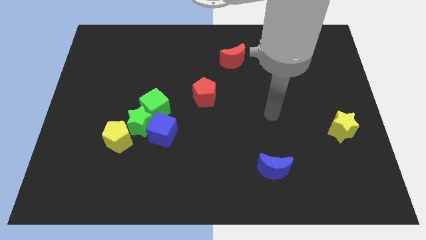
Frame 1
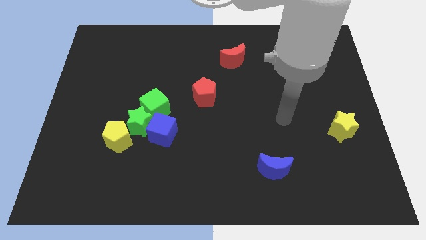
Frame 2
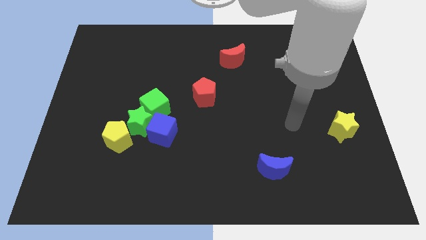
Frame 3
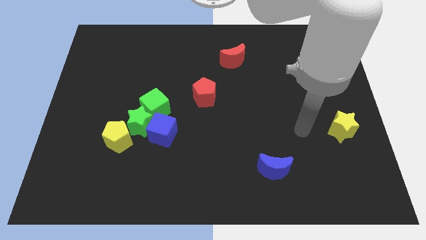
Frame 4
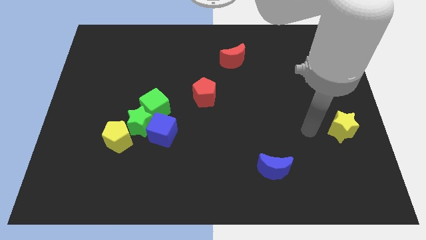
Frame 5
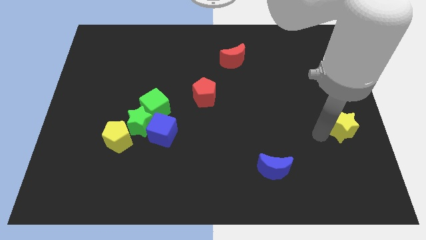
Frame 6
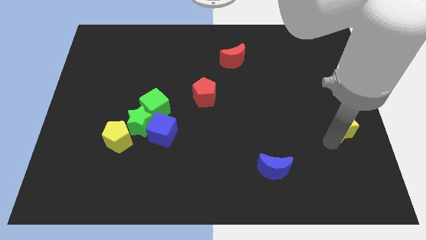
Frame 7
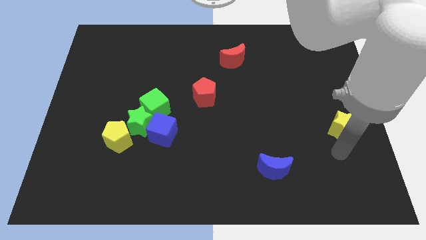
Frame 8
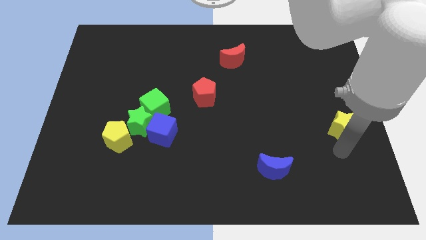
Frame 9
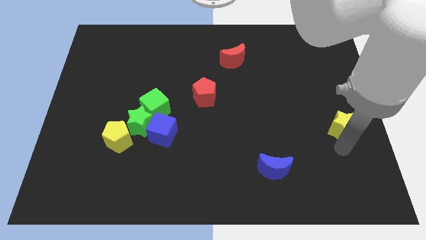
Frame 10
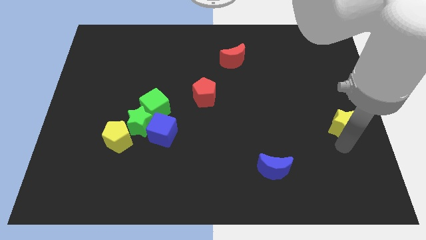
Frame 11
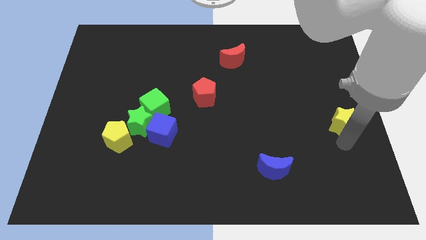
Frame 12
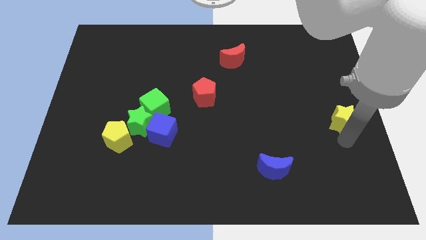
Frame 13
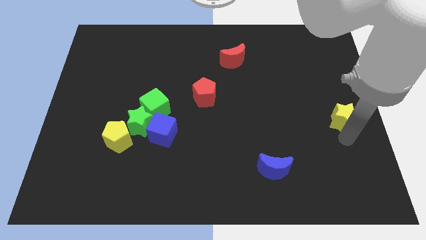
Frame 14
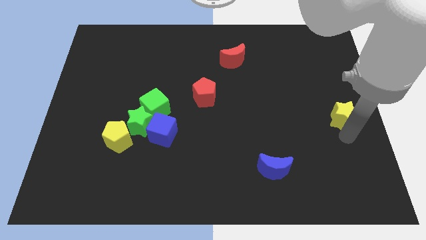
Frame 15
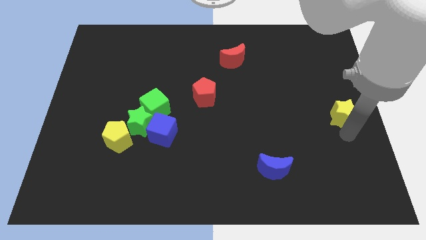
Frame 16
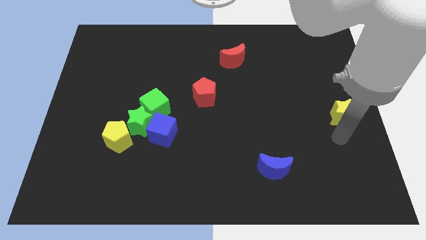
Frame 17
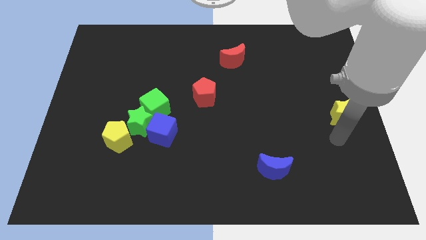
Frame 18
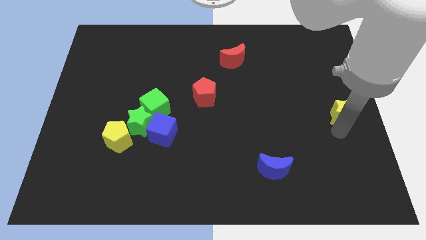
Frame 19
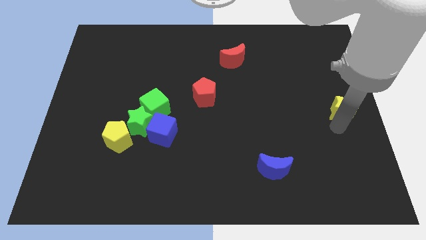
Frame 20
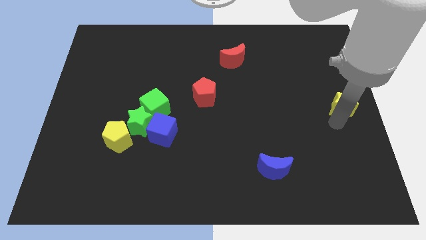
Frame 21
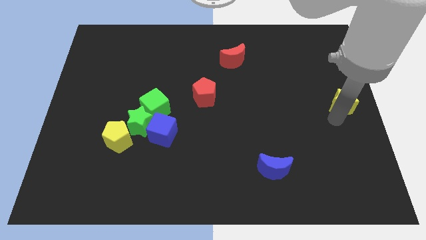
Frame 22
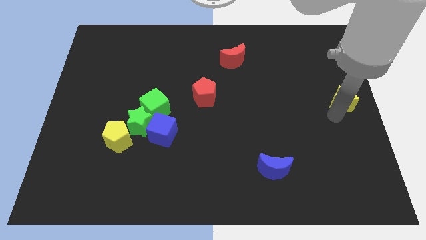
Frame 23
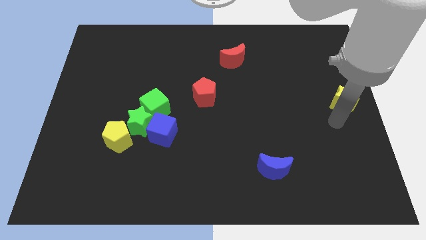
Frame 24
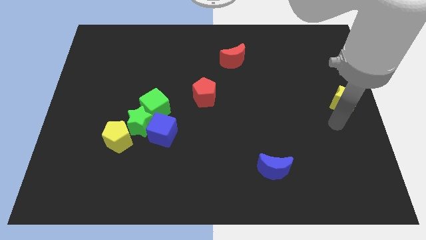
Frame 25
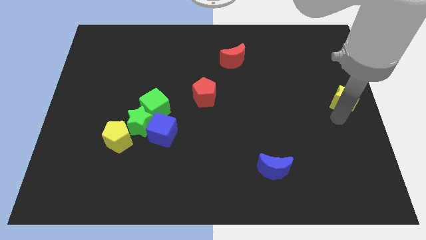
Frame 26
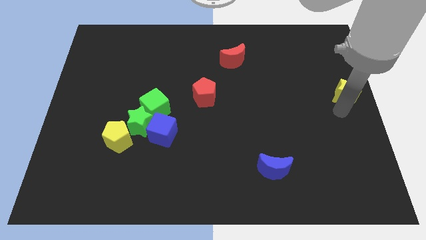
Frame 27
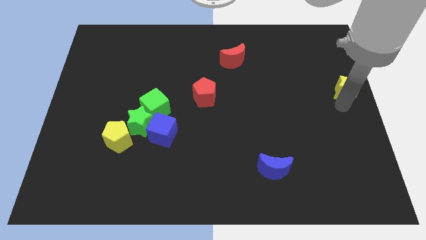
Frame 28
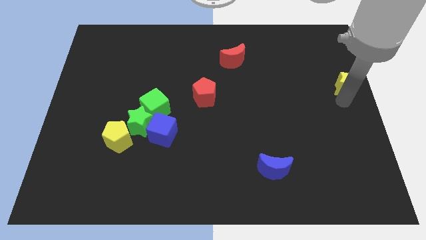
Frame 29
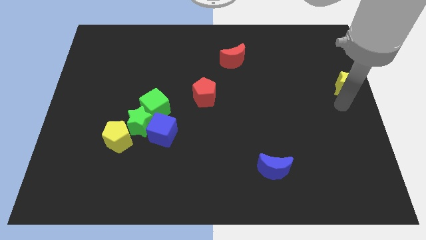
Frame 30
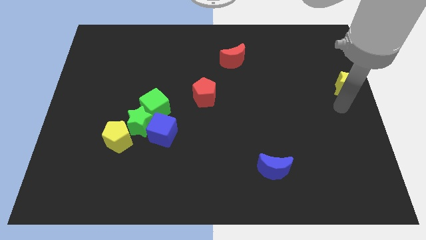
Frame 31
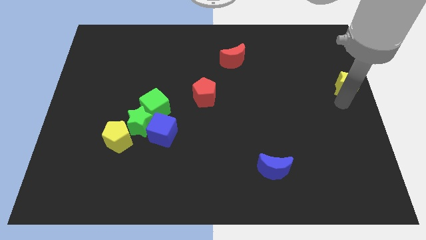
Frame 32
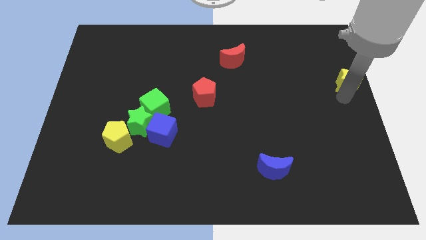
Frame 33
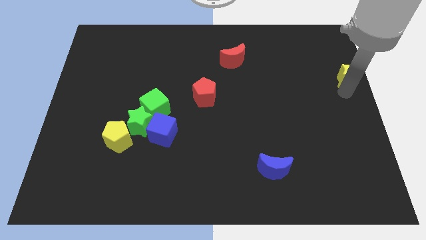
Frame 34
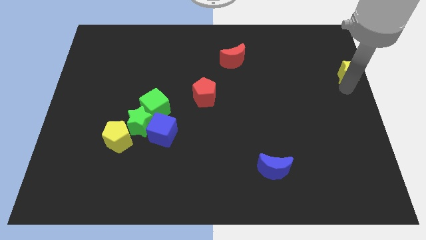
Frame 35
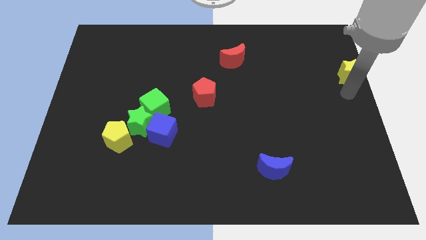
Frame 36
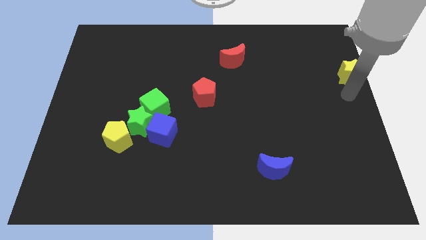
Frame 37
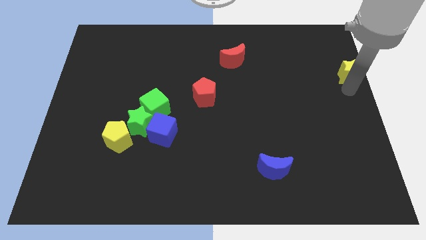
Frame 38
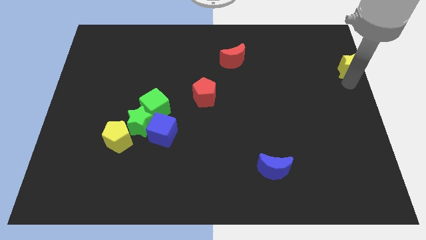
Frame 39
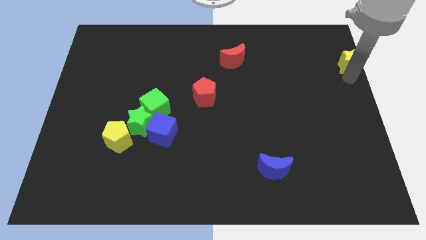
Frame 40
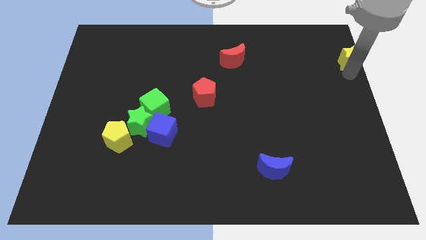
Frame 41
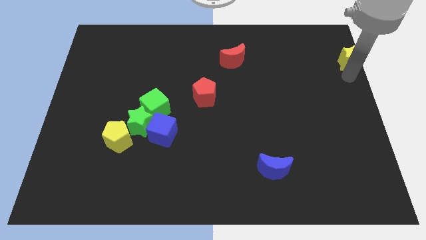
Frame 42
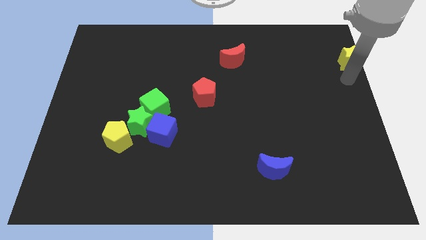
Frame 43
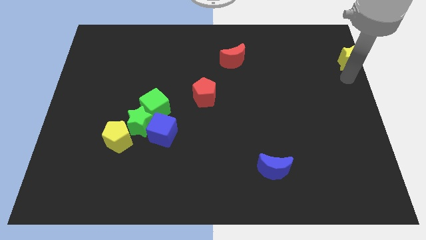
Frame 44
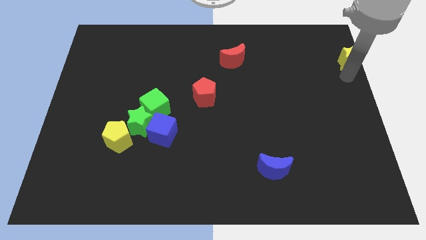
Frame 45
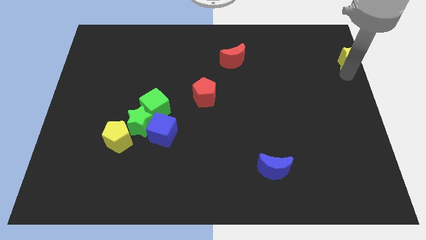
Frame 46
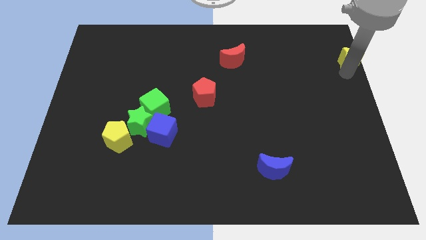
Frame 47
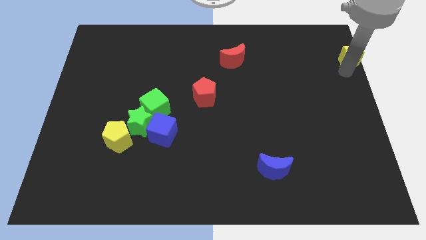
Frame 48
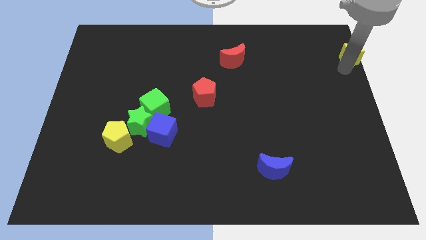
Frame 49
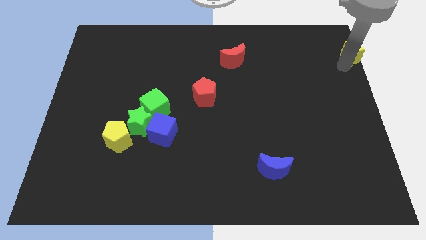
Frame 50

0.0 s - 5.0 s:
push the yellow star to the top right corner

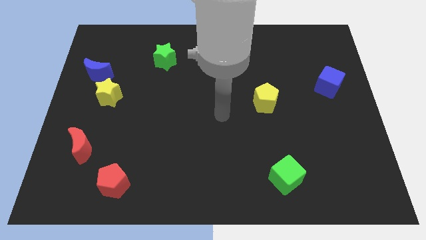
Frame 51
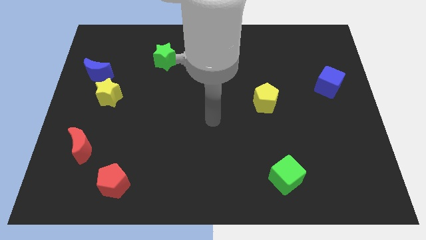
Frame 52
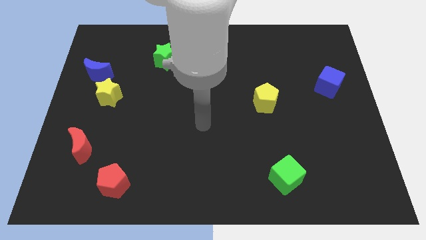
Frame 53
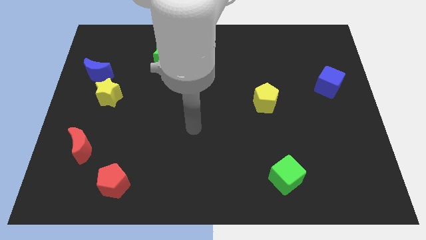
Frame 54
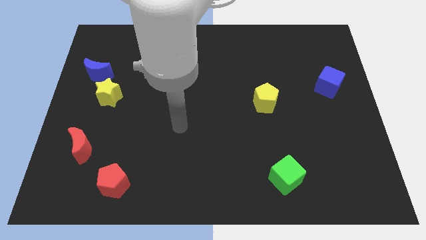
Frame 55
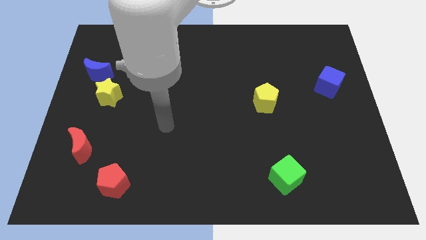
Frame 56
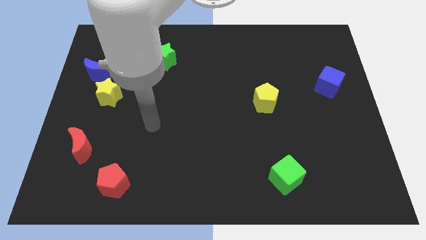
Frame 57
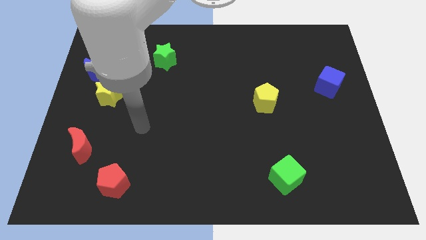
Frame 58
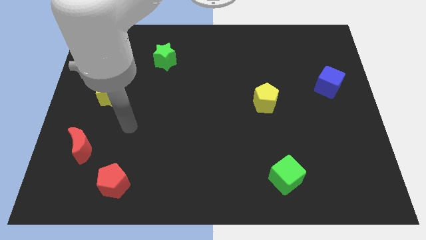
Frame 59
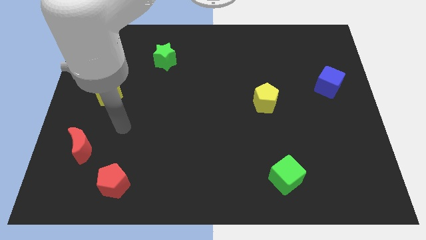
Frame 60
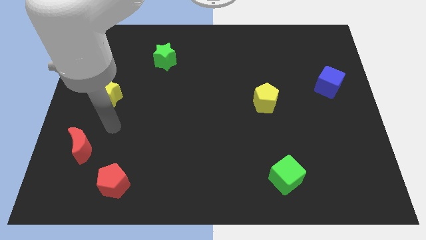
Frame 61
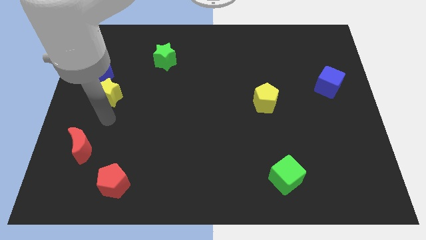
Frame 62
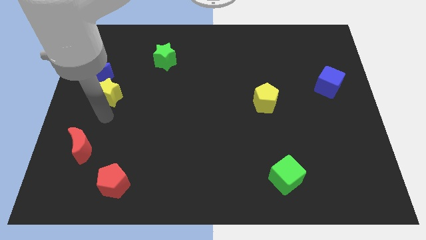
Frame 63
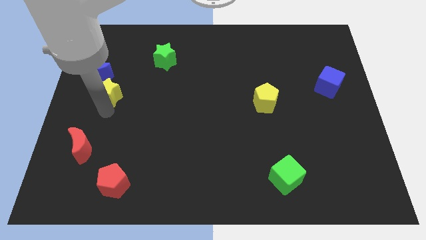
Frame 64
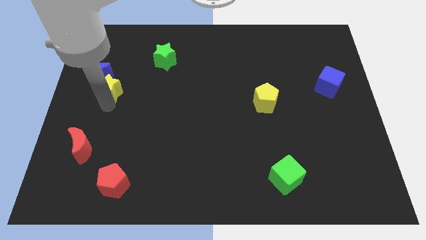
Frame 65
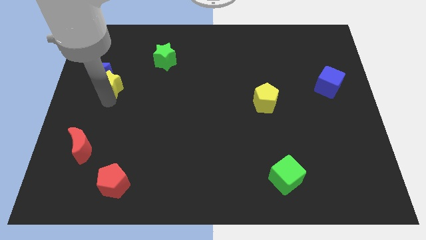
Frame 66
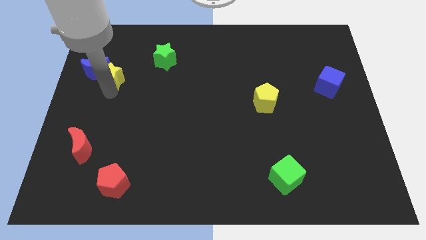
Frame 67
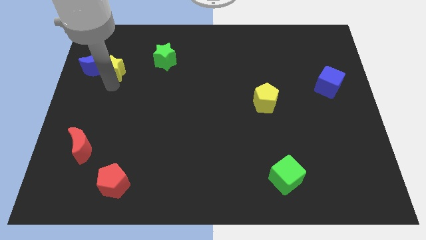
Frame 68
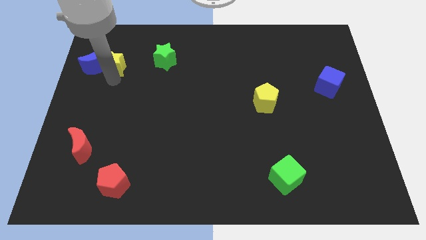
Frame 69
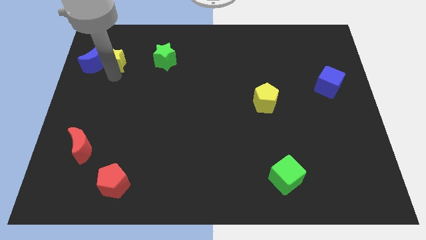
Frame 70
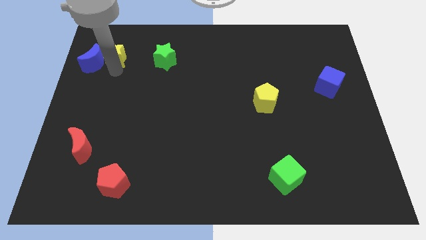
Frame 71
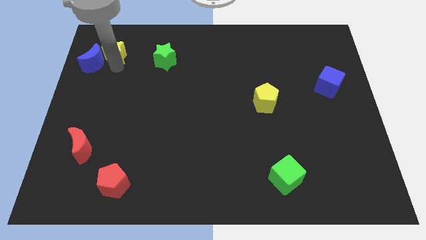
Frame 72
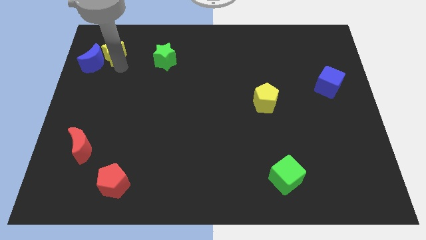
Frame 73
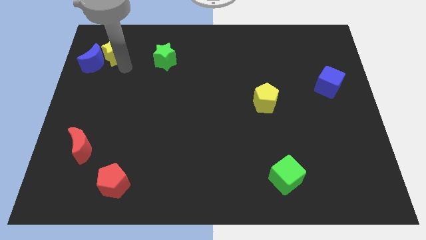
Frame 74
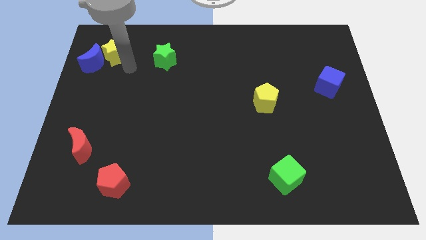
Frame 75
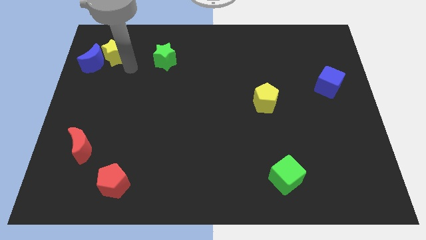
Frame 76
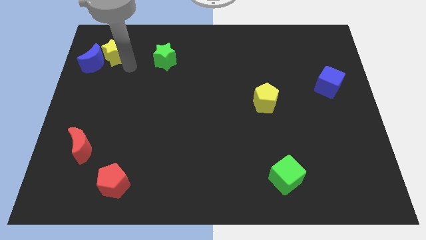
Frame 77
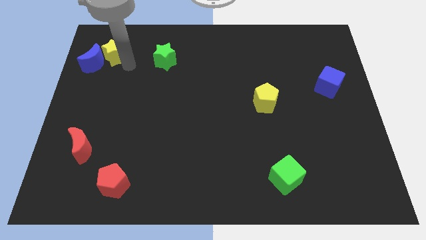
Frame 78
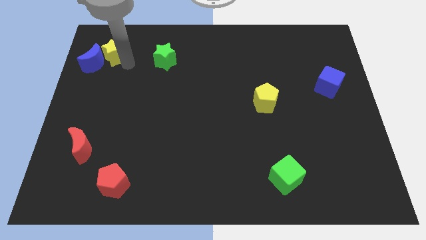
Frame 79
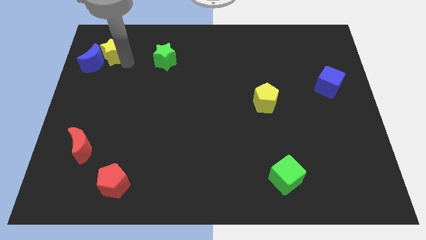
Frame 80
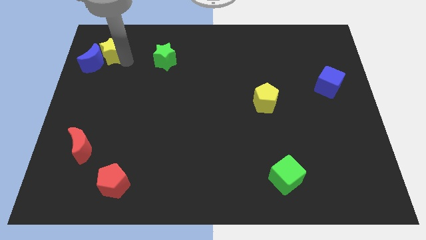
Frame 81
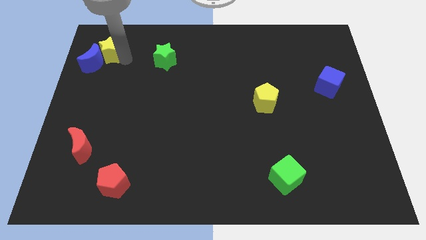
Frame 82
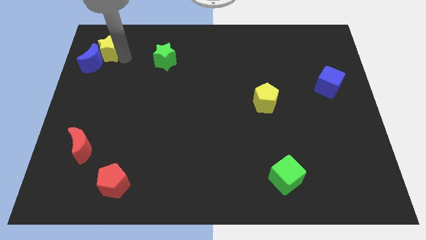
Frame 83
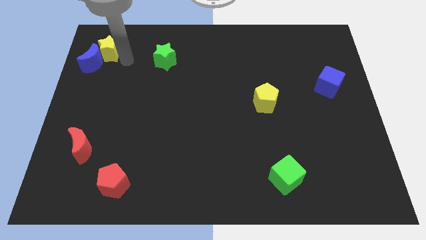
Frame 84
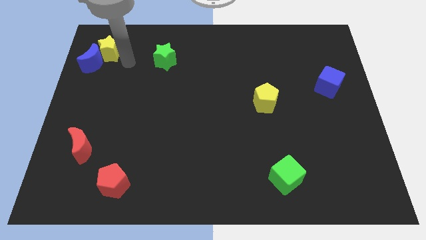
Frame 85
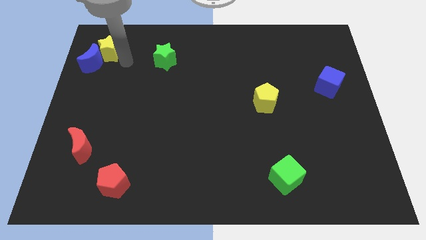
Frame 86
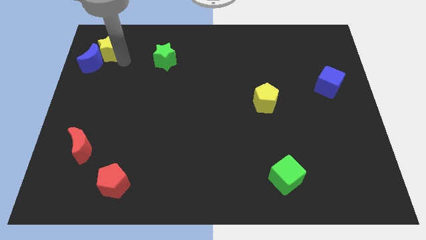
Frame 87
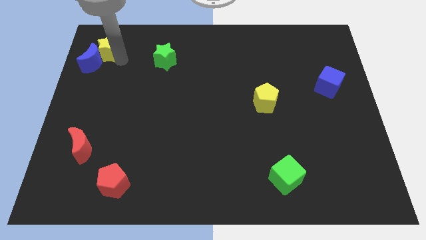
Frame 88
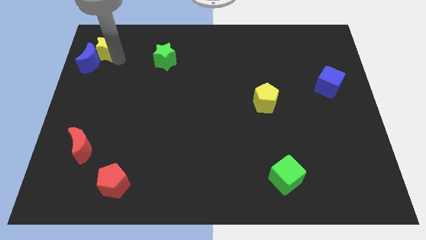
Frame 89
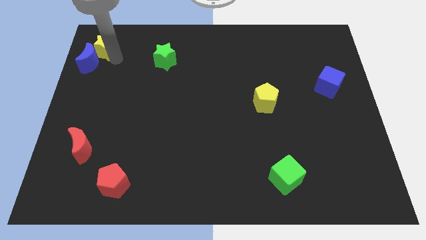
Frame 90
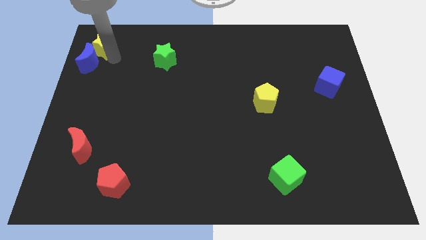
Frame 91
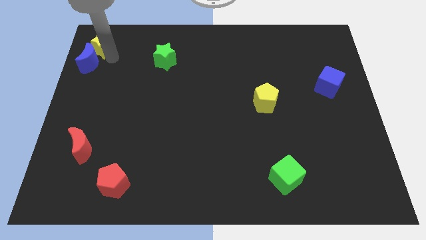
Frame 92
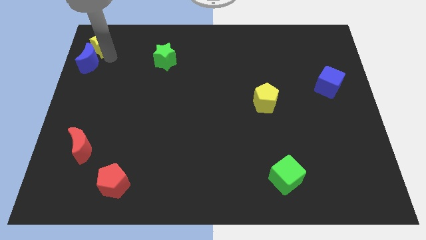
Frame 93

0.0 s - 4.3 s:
put the yellow star to the upper left corner
